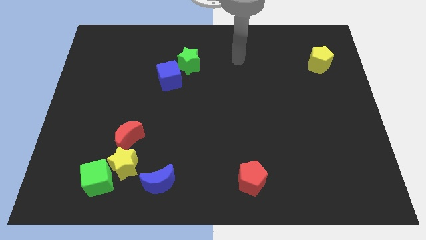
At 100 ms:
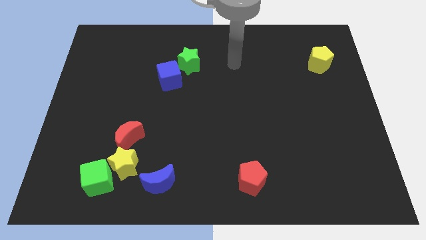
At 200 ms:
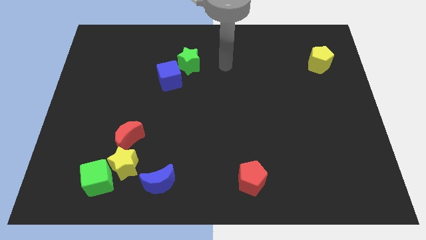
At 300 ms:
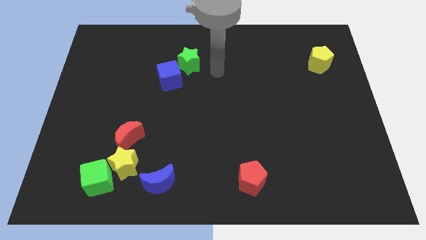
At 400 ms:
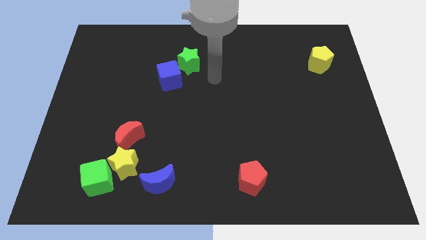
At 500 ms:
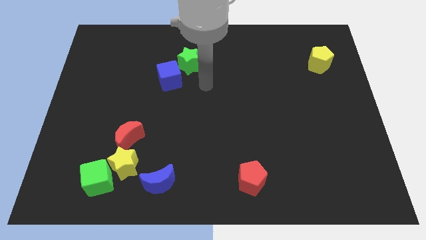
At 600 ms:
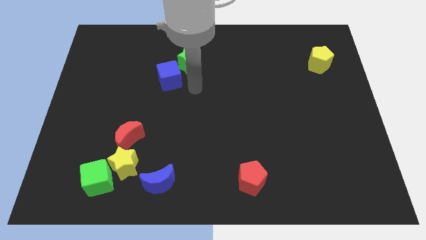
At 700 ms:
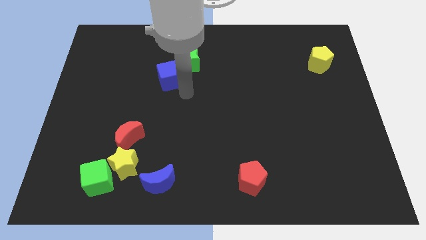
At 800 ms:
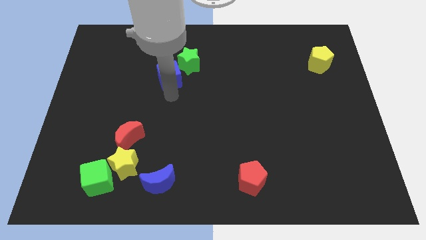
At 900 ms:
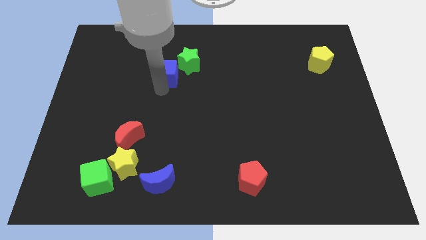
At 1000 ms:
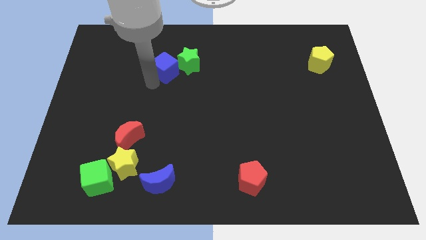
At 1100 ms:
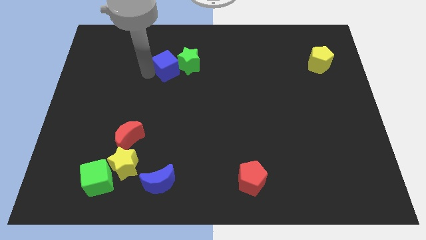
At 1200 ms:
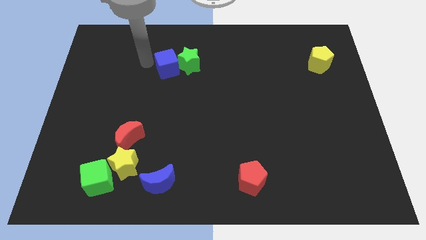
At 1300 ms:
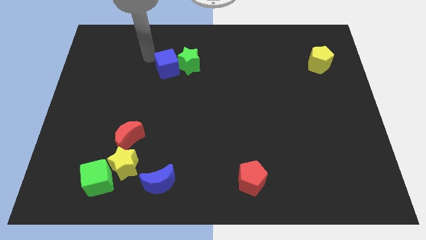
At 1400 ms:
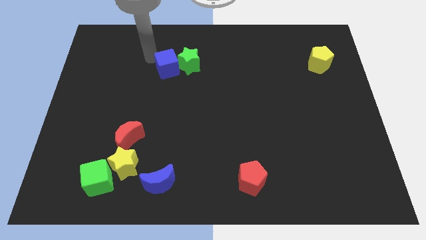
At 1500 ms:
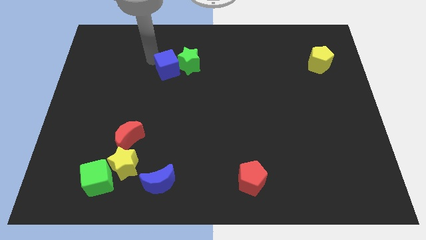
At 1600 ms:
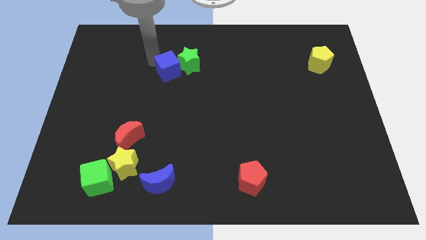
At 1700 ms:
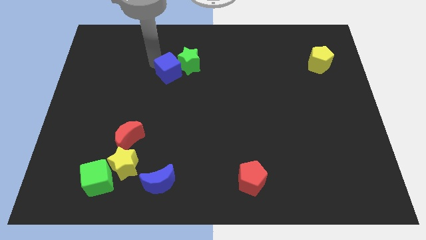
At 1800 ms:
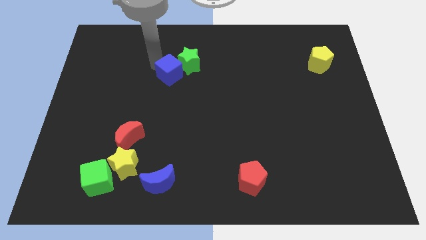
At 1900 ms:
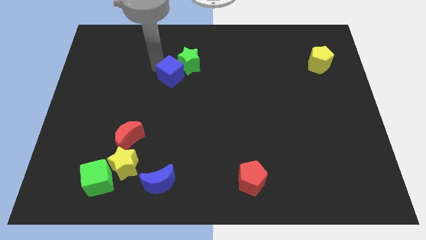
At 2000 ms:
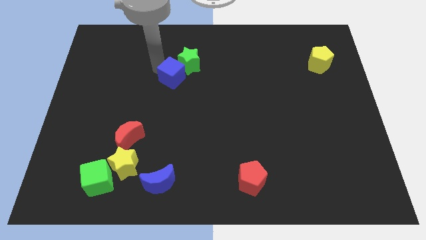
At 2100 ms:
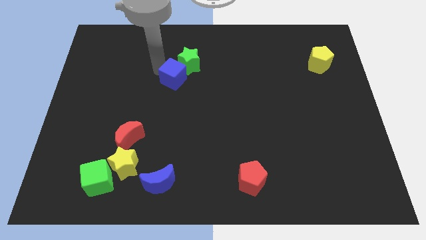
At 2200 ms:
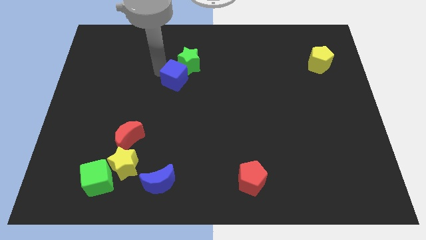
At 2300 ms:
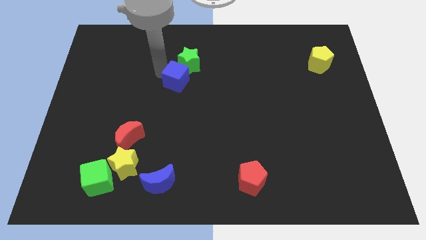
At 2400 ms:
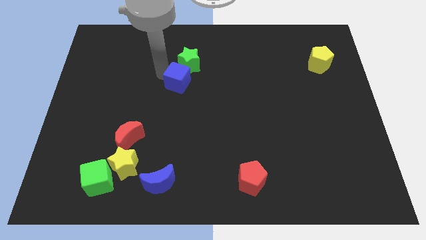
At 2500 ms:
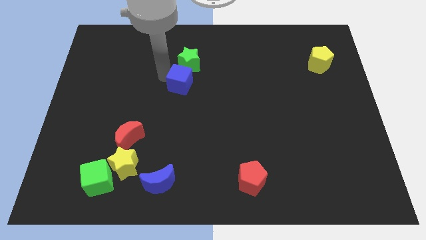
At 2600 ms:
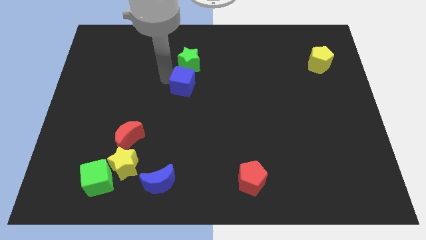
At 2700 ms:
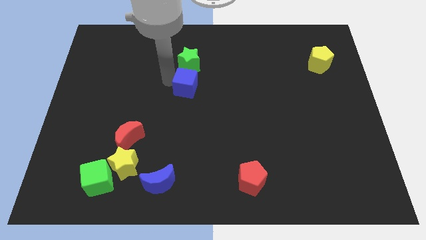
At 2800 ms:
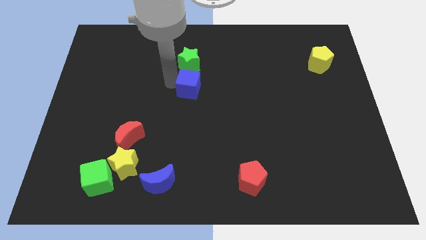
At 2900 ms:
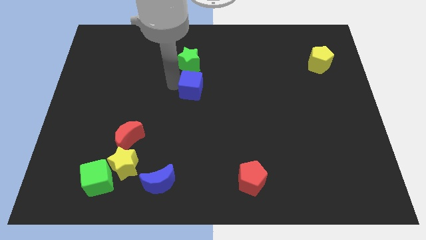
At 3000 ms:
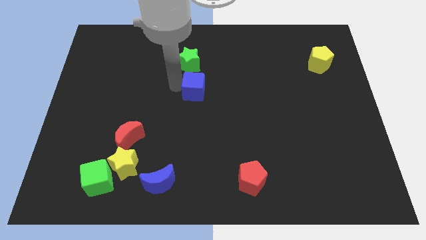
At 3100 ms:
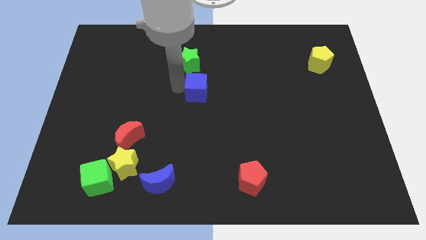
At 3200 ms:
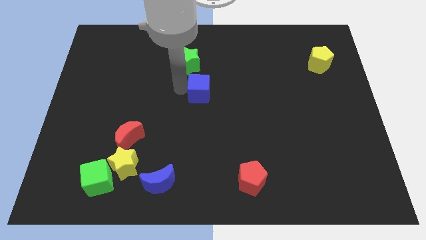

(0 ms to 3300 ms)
push the blue cube to the right slightly

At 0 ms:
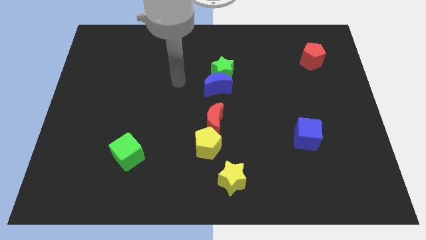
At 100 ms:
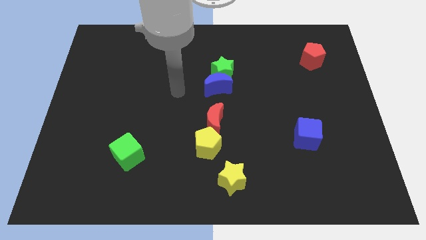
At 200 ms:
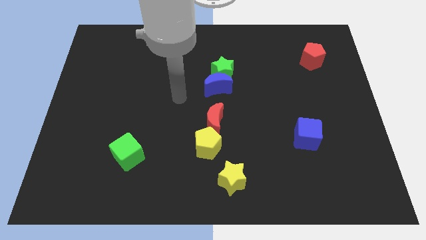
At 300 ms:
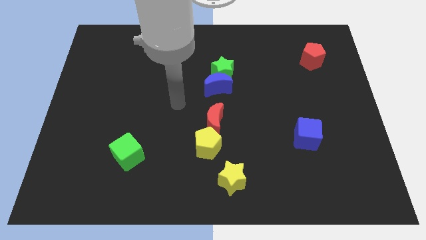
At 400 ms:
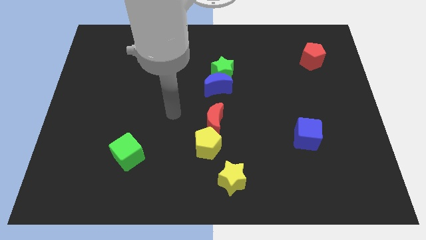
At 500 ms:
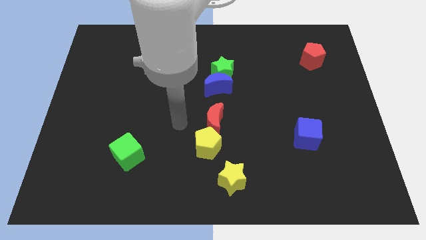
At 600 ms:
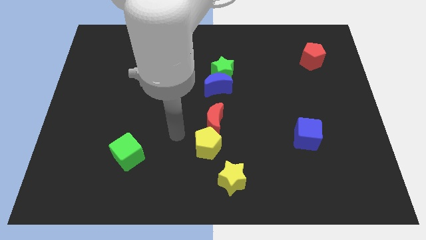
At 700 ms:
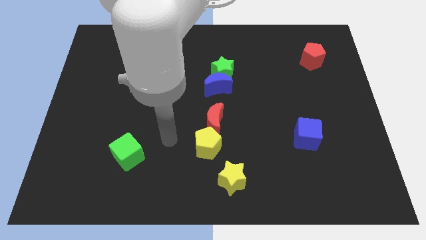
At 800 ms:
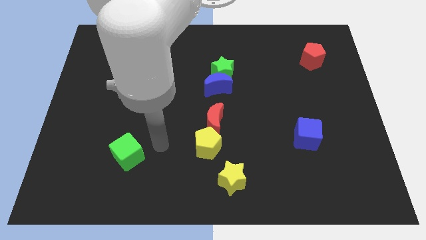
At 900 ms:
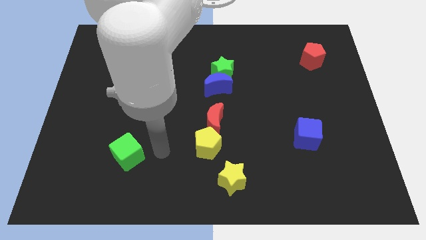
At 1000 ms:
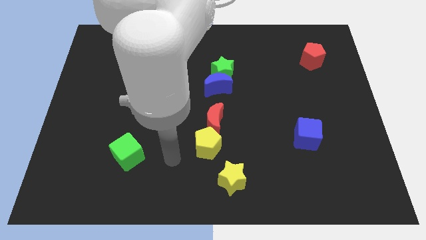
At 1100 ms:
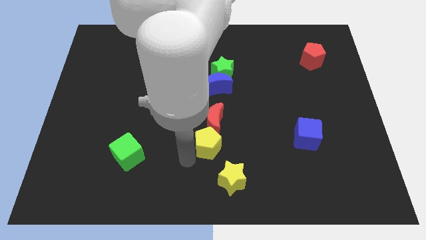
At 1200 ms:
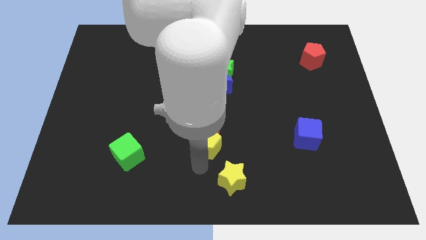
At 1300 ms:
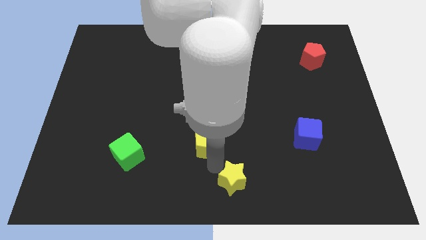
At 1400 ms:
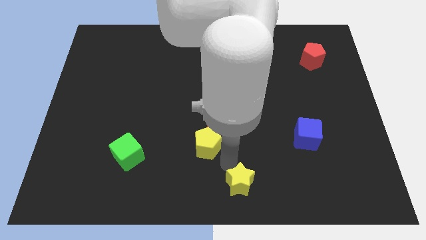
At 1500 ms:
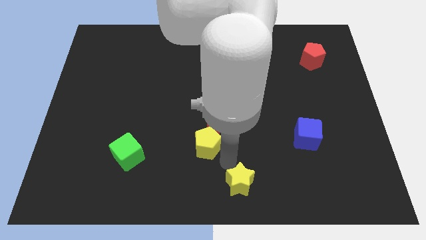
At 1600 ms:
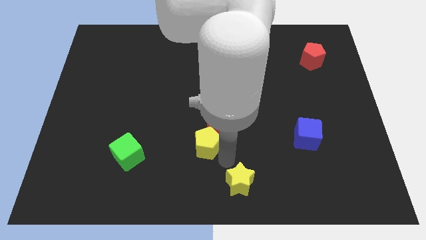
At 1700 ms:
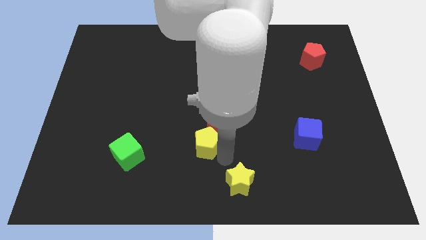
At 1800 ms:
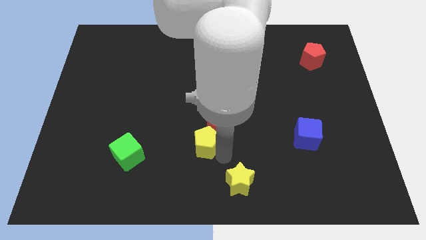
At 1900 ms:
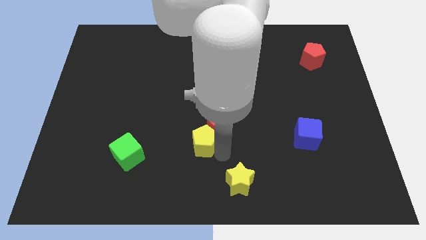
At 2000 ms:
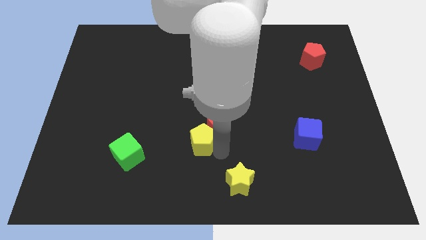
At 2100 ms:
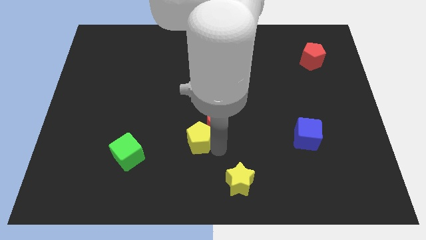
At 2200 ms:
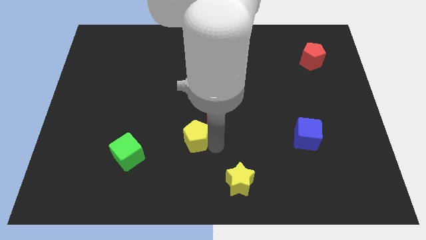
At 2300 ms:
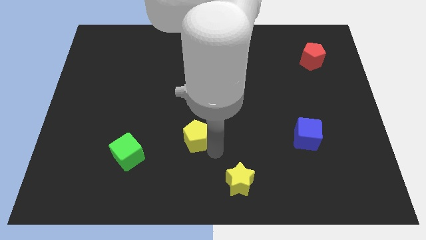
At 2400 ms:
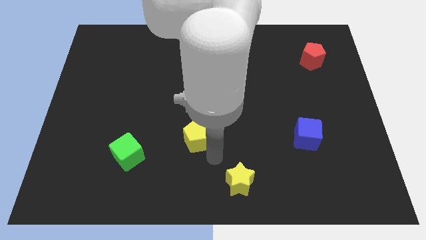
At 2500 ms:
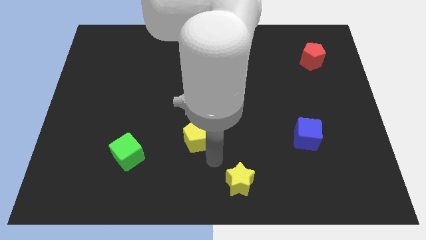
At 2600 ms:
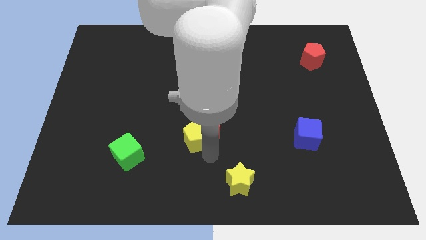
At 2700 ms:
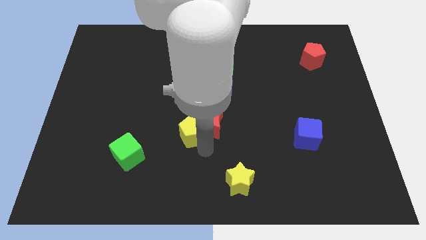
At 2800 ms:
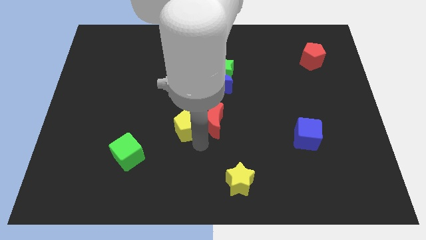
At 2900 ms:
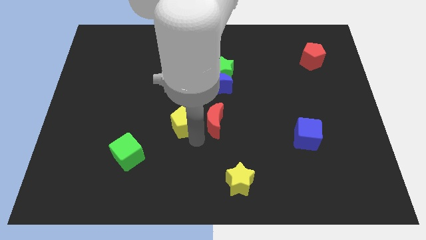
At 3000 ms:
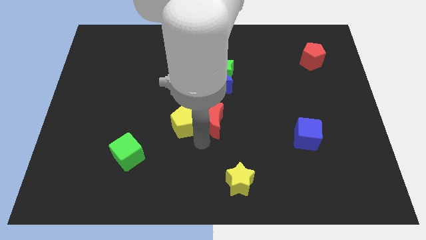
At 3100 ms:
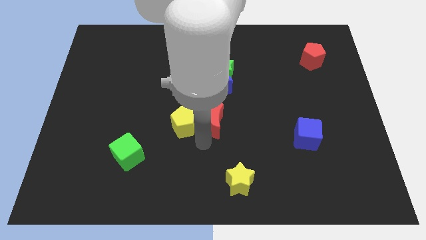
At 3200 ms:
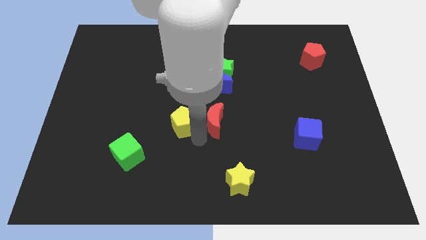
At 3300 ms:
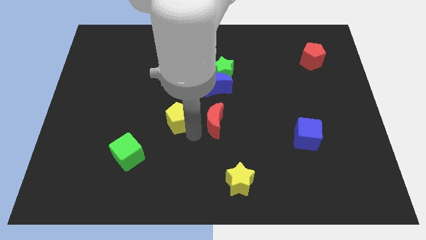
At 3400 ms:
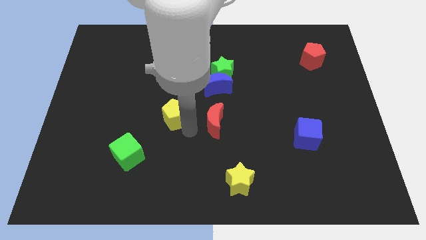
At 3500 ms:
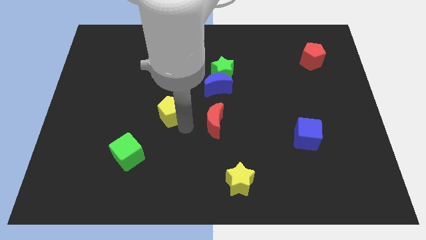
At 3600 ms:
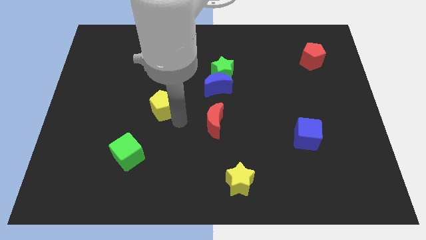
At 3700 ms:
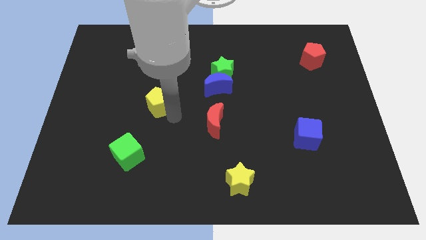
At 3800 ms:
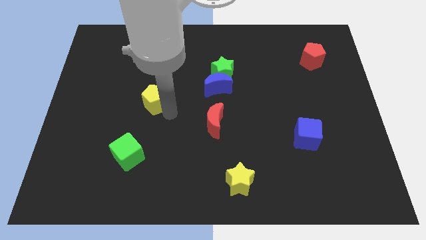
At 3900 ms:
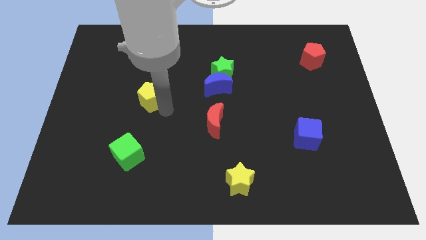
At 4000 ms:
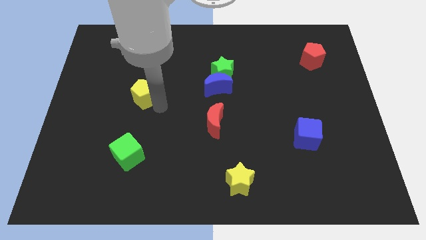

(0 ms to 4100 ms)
move the yellow pentagon up and to the left

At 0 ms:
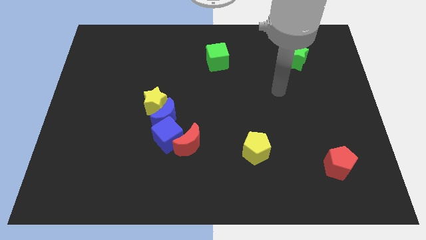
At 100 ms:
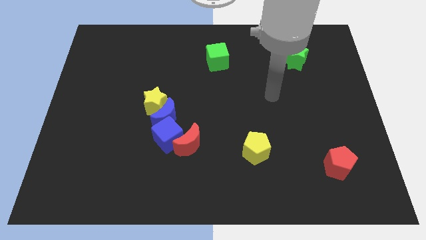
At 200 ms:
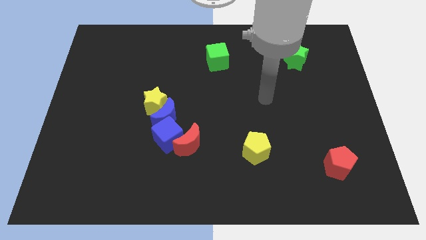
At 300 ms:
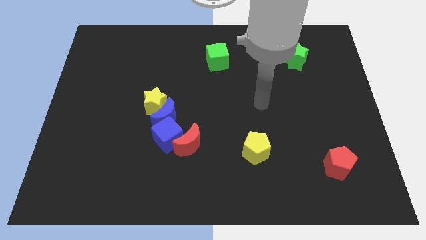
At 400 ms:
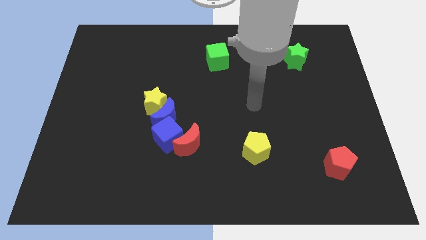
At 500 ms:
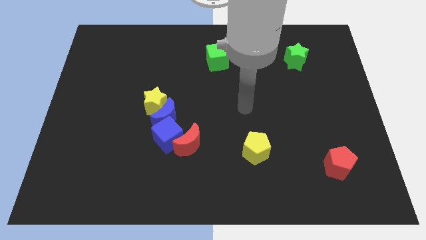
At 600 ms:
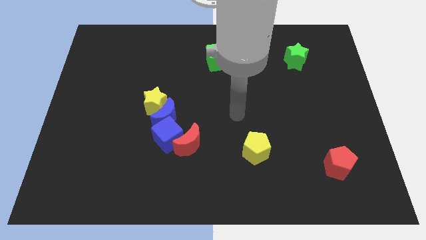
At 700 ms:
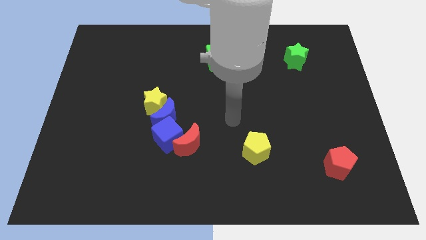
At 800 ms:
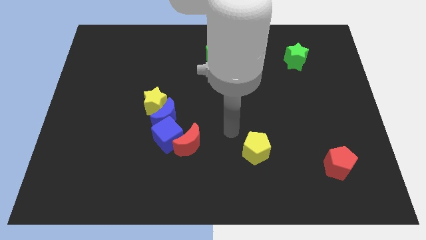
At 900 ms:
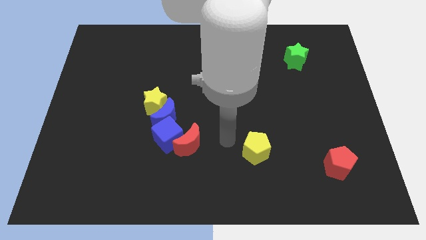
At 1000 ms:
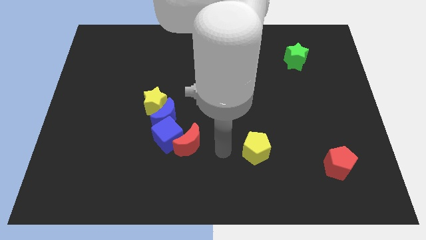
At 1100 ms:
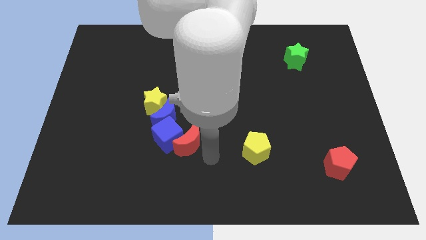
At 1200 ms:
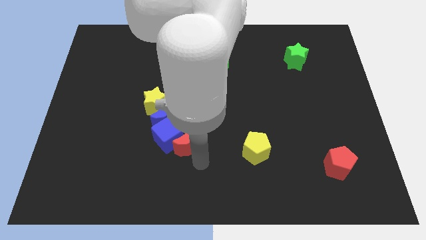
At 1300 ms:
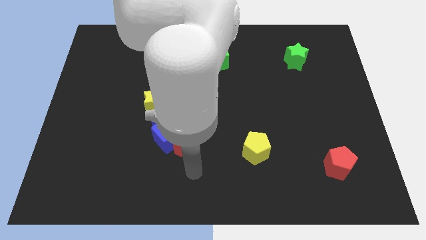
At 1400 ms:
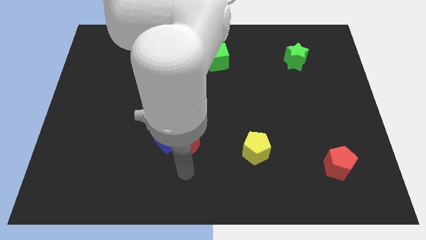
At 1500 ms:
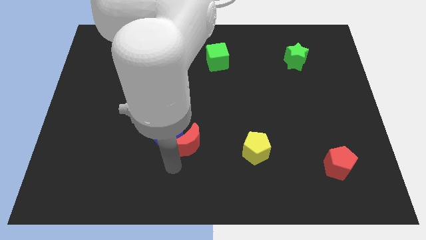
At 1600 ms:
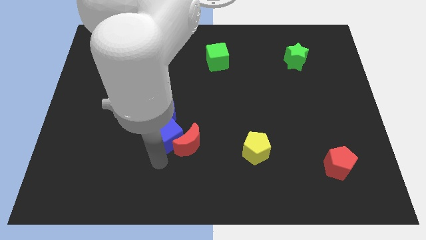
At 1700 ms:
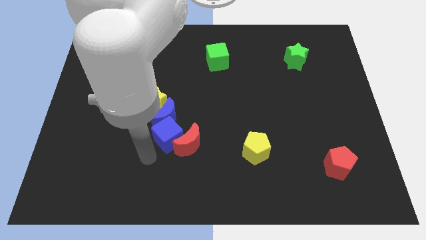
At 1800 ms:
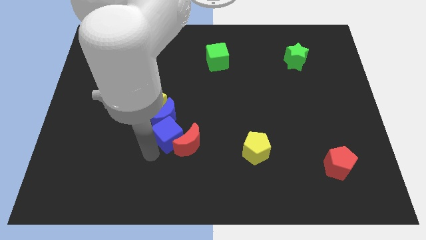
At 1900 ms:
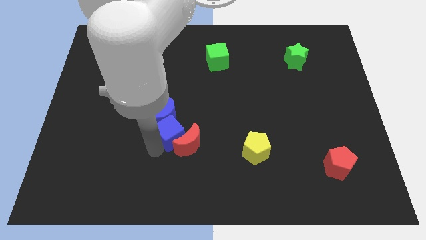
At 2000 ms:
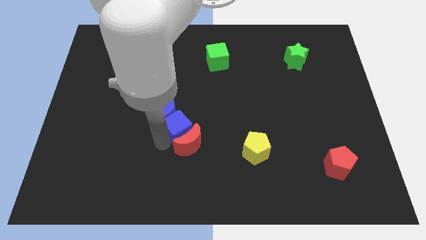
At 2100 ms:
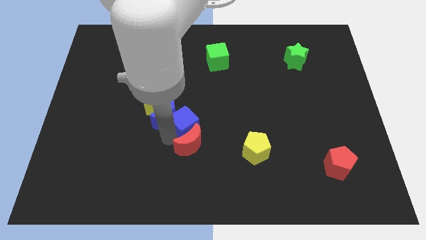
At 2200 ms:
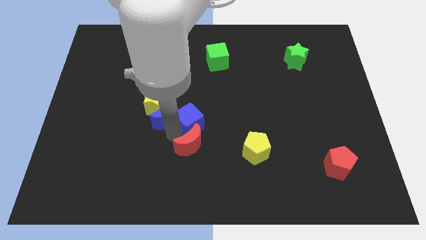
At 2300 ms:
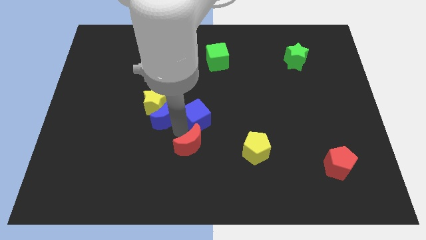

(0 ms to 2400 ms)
push the blue cube a bit diagonally upwards and right
